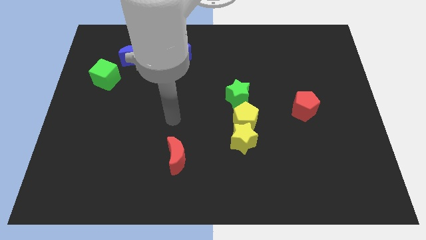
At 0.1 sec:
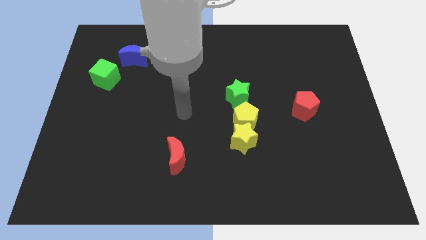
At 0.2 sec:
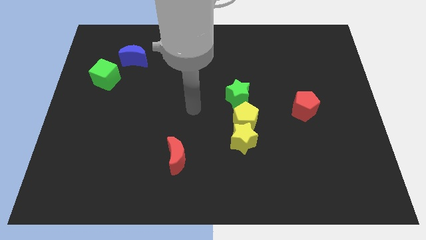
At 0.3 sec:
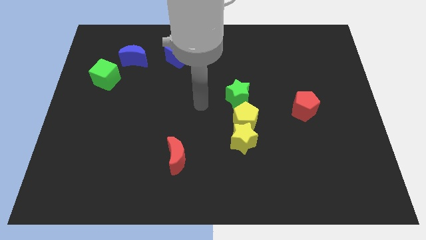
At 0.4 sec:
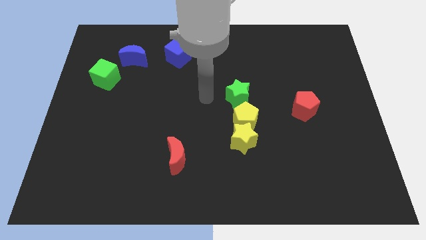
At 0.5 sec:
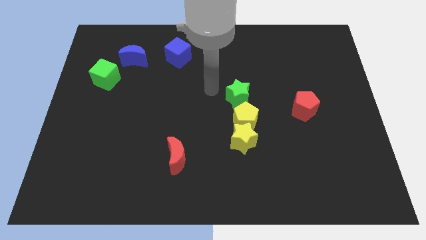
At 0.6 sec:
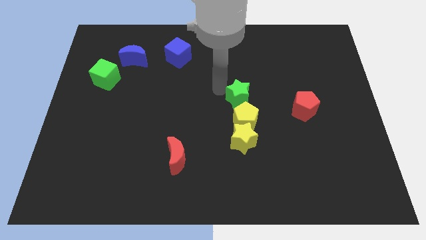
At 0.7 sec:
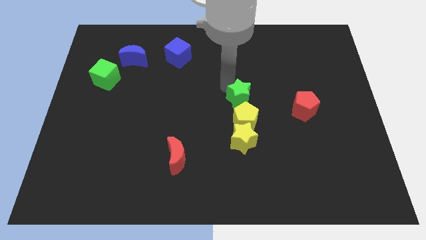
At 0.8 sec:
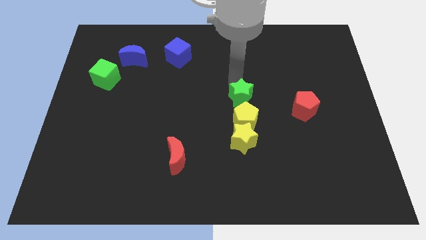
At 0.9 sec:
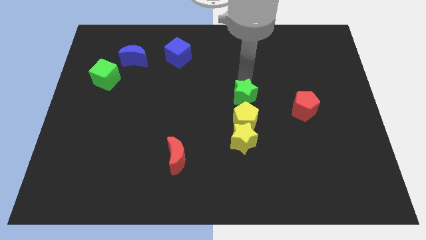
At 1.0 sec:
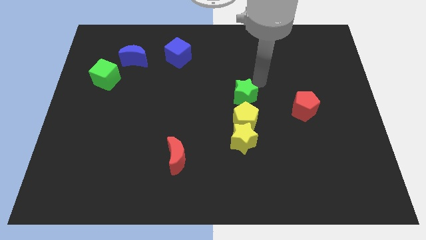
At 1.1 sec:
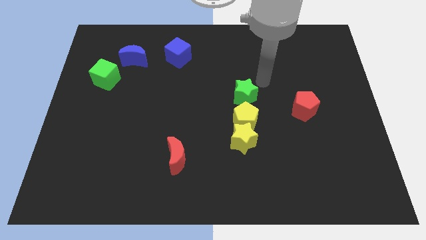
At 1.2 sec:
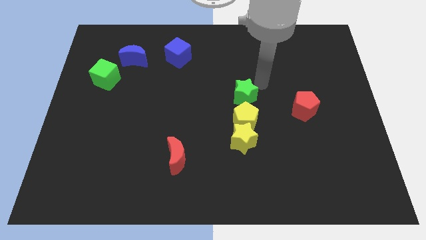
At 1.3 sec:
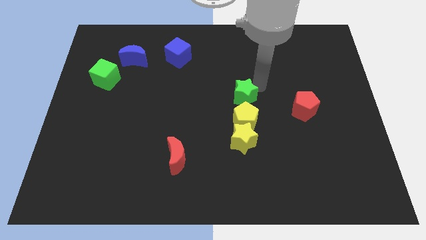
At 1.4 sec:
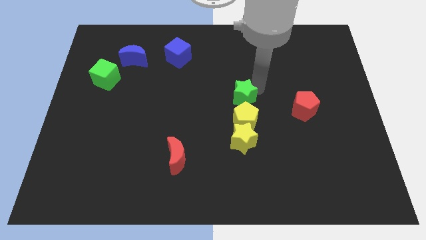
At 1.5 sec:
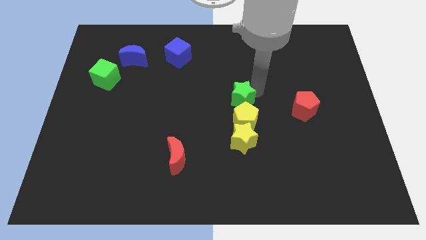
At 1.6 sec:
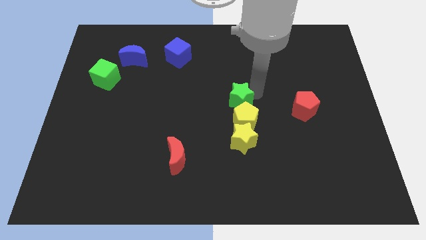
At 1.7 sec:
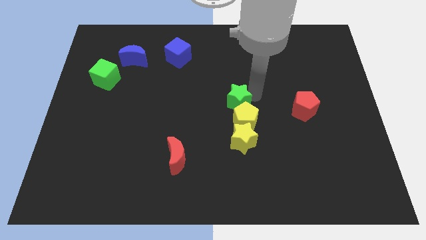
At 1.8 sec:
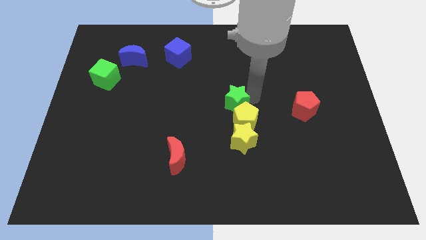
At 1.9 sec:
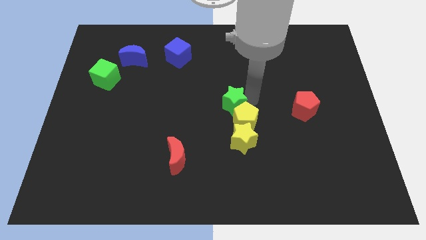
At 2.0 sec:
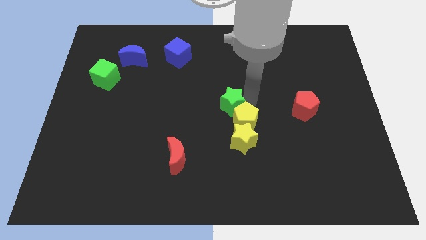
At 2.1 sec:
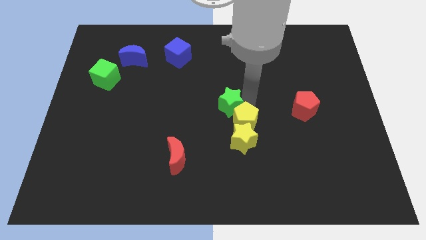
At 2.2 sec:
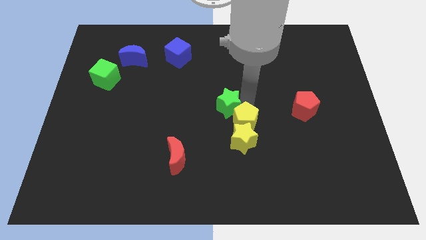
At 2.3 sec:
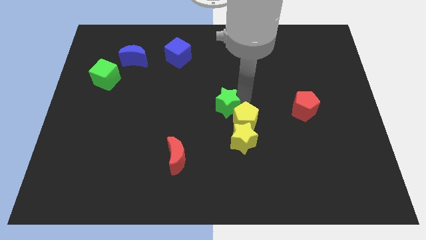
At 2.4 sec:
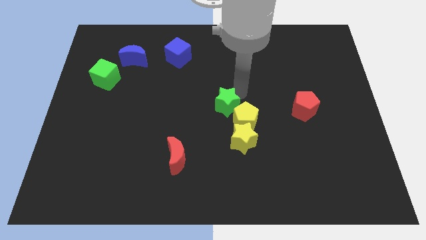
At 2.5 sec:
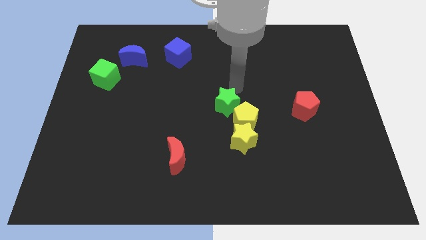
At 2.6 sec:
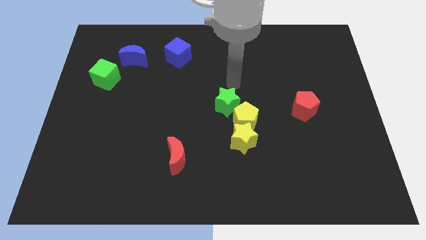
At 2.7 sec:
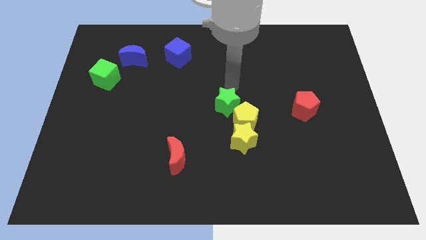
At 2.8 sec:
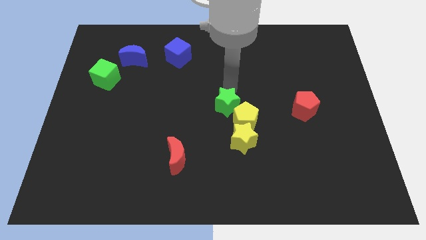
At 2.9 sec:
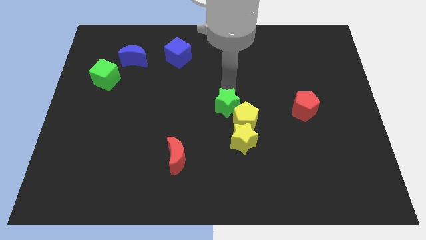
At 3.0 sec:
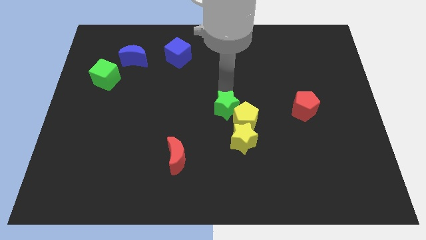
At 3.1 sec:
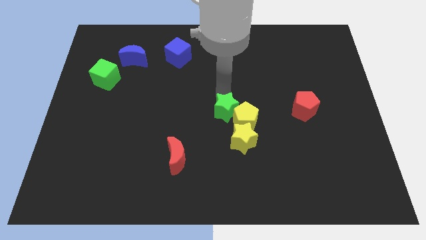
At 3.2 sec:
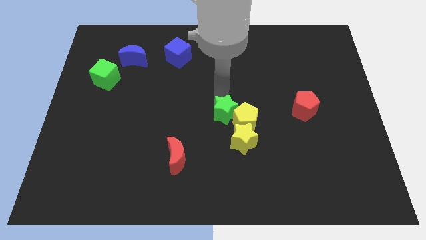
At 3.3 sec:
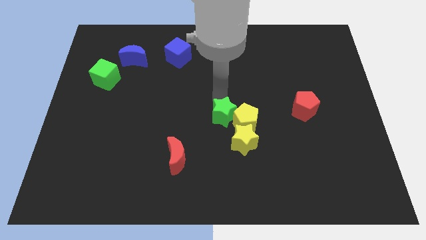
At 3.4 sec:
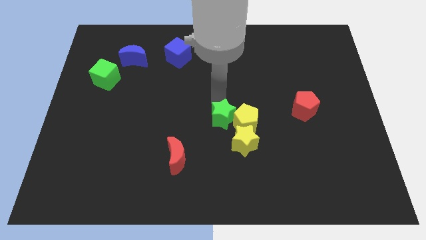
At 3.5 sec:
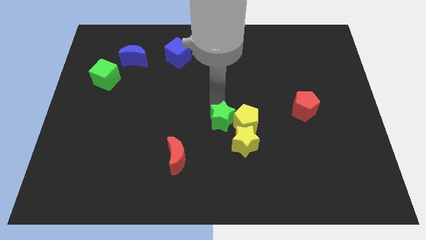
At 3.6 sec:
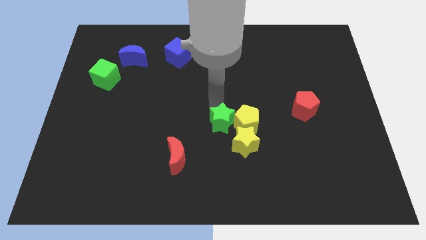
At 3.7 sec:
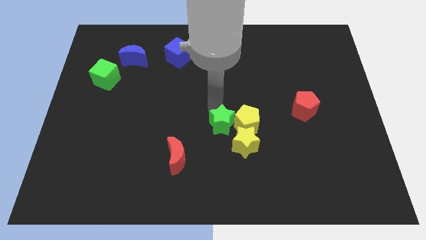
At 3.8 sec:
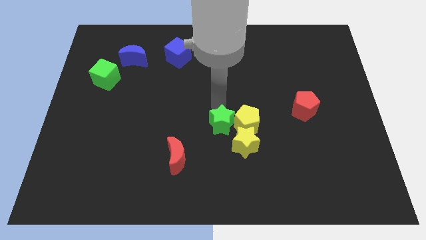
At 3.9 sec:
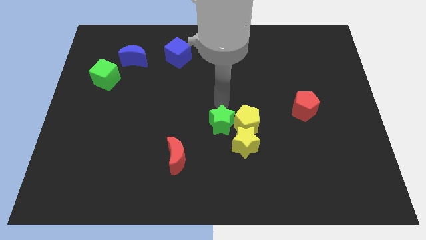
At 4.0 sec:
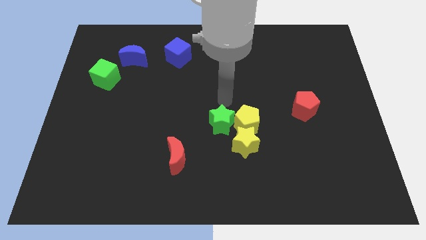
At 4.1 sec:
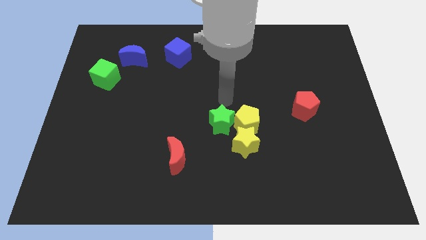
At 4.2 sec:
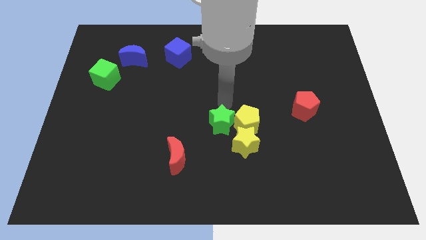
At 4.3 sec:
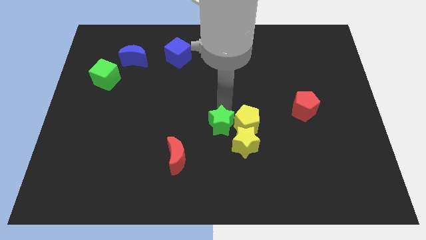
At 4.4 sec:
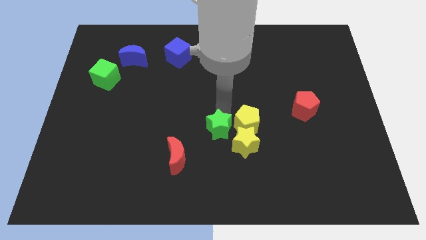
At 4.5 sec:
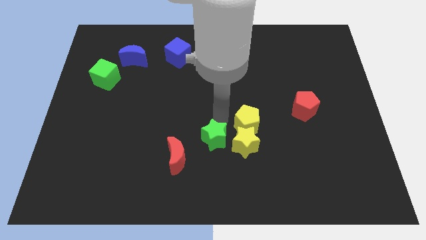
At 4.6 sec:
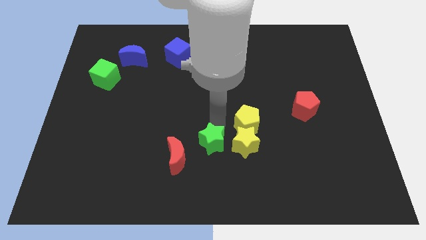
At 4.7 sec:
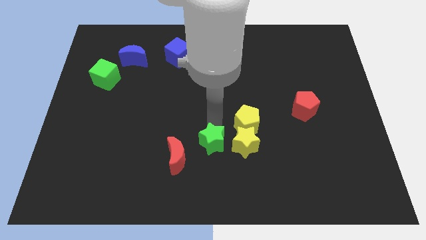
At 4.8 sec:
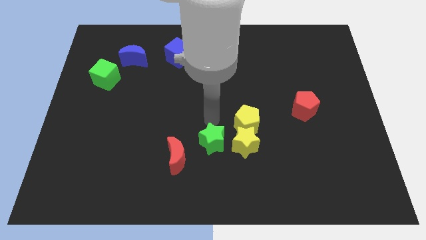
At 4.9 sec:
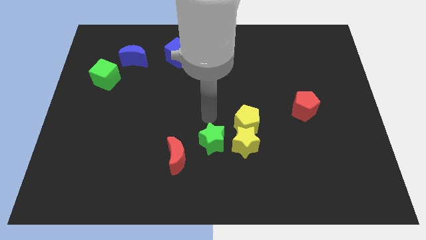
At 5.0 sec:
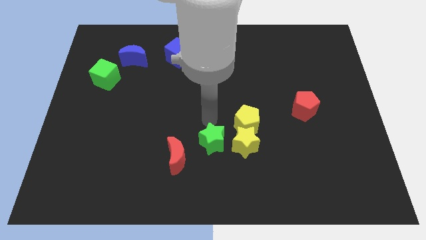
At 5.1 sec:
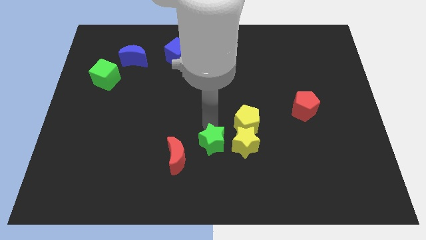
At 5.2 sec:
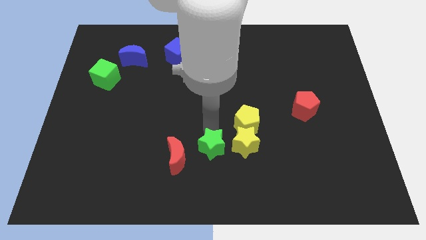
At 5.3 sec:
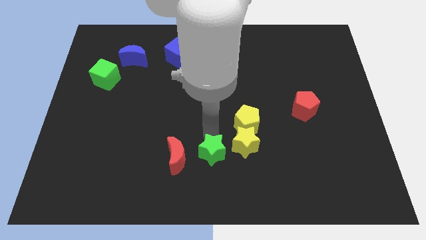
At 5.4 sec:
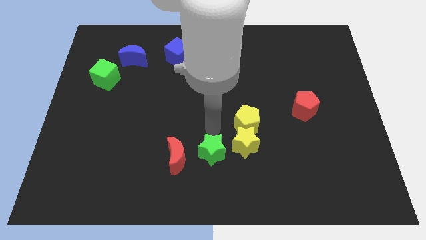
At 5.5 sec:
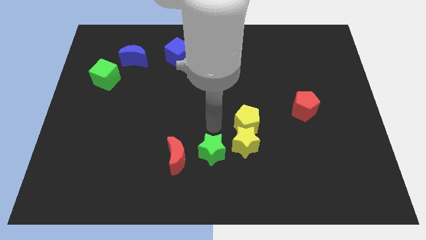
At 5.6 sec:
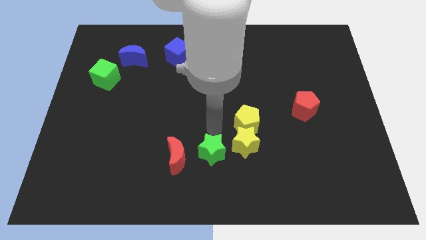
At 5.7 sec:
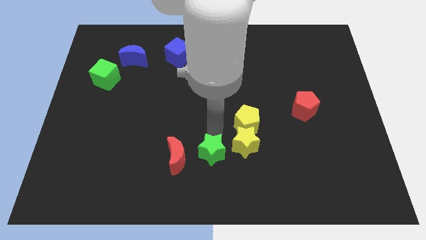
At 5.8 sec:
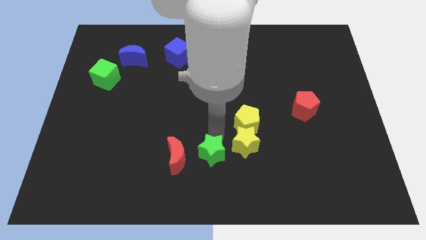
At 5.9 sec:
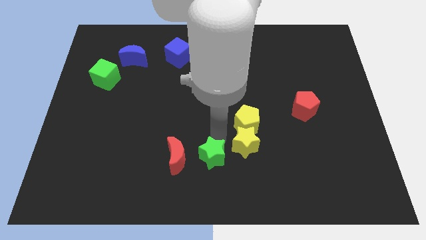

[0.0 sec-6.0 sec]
move the green star to the bottom
